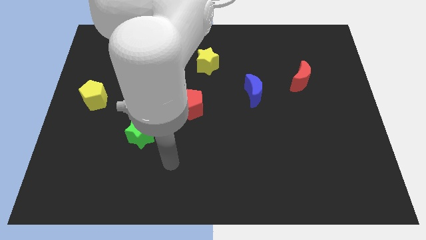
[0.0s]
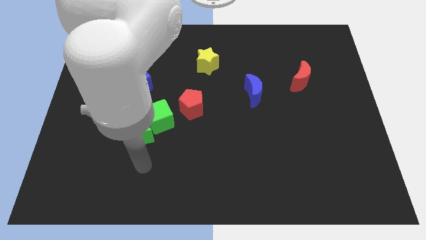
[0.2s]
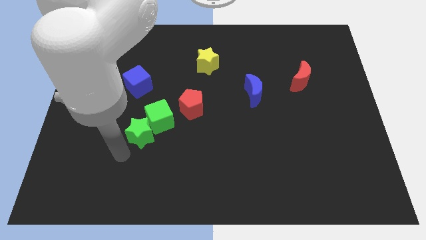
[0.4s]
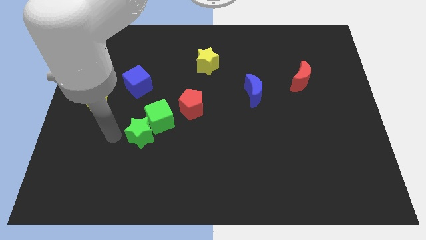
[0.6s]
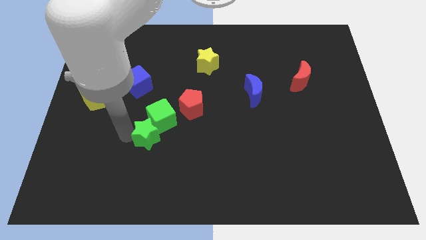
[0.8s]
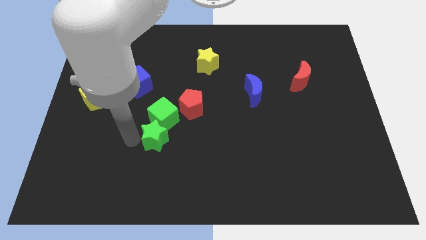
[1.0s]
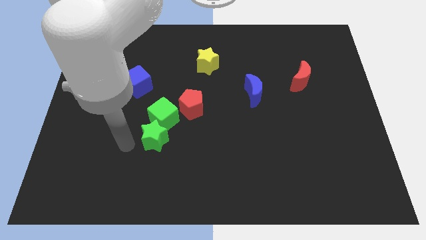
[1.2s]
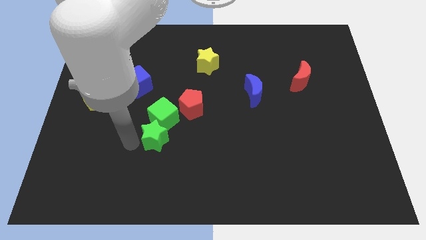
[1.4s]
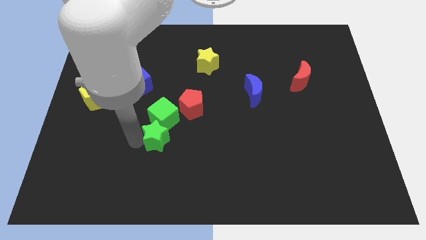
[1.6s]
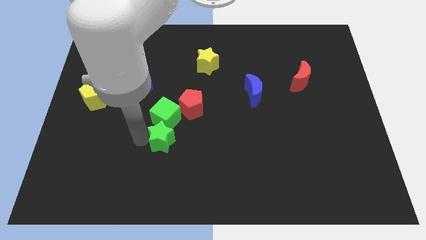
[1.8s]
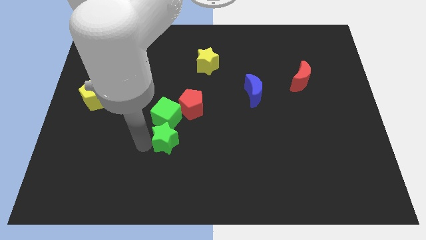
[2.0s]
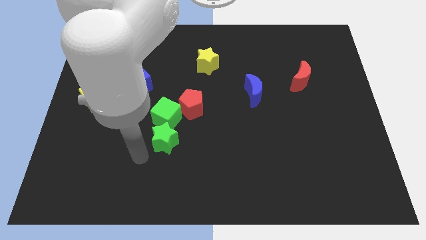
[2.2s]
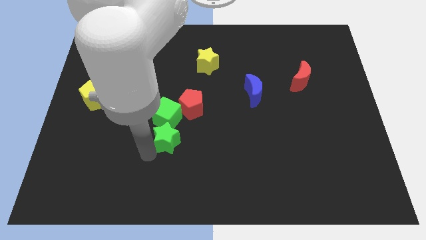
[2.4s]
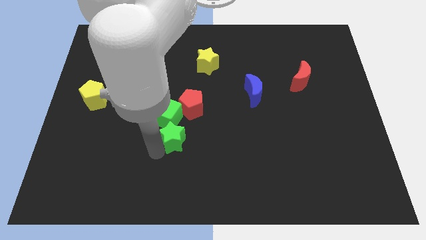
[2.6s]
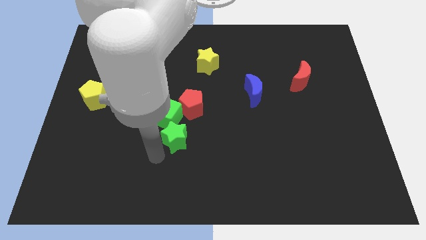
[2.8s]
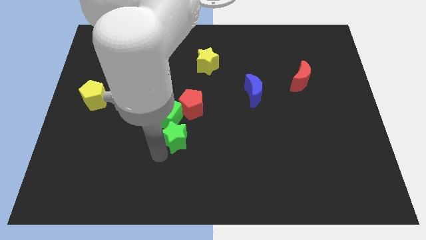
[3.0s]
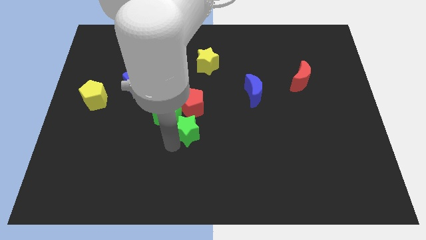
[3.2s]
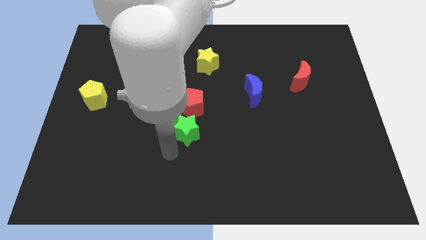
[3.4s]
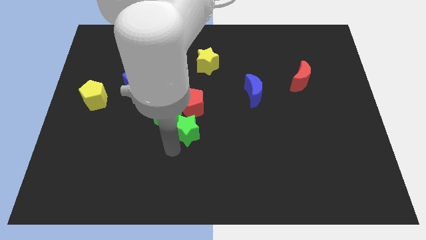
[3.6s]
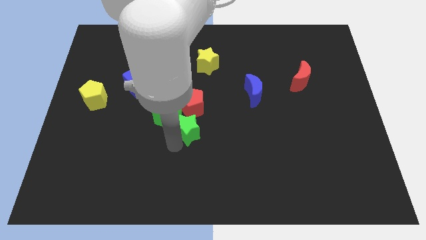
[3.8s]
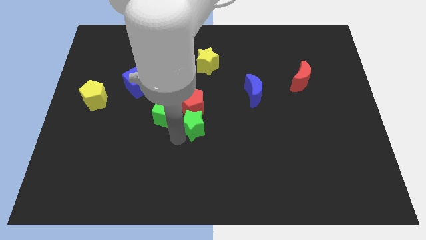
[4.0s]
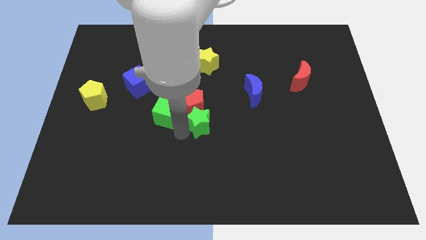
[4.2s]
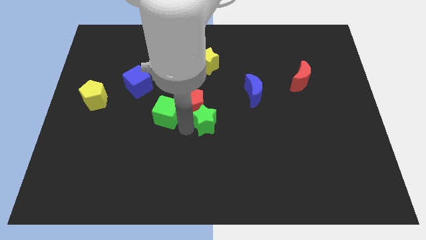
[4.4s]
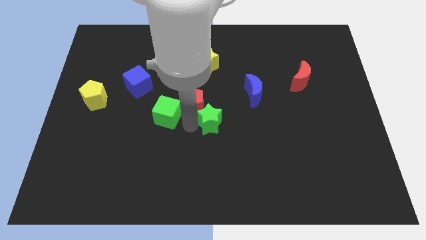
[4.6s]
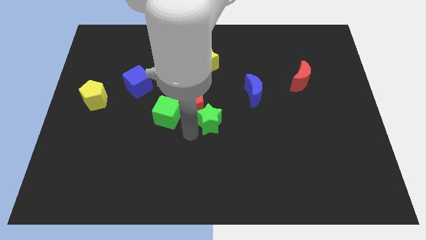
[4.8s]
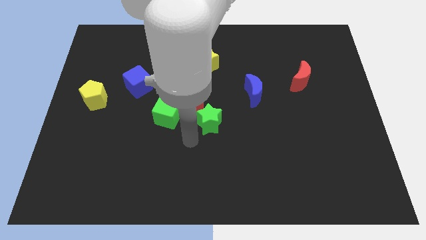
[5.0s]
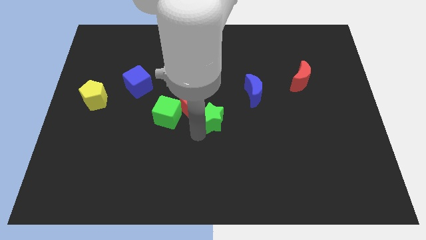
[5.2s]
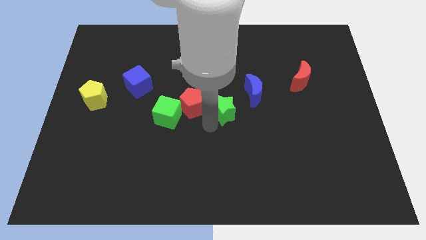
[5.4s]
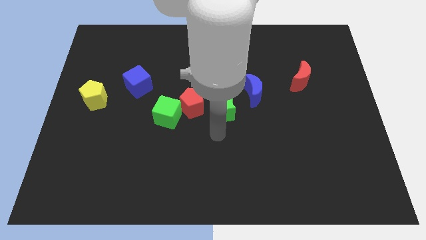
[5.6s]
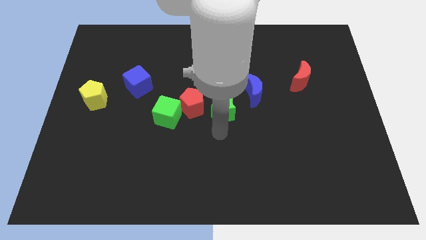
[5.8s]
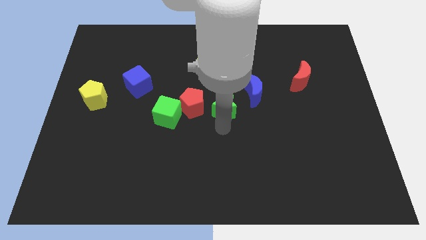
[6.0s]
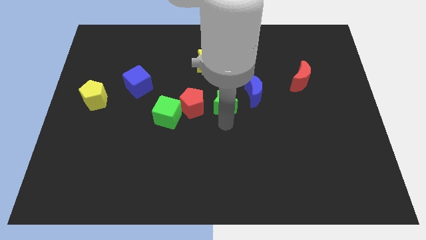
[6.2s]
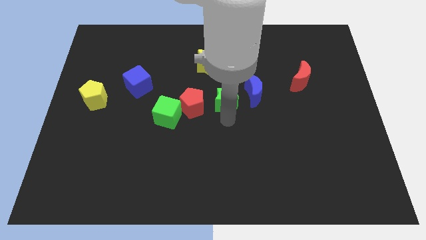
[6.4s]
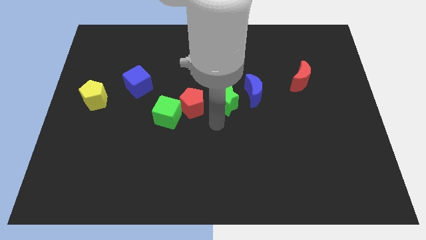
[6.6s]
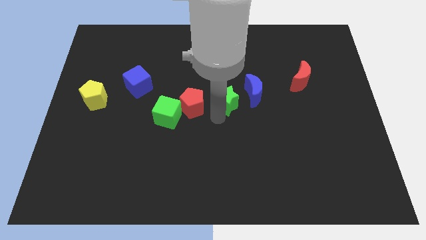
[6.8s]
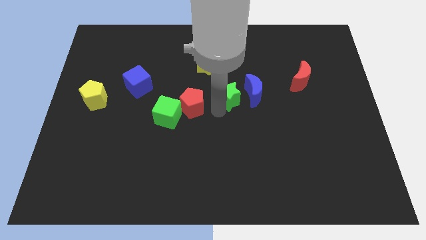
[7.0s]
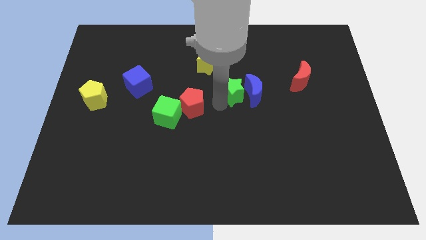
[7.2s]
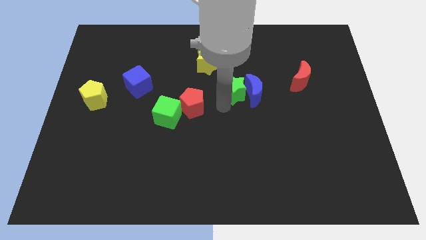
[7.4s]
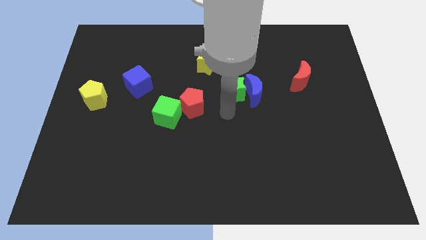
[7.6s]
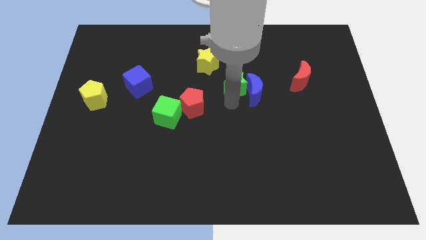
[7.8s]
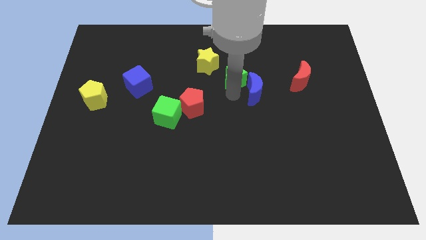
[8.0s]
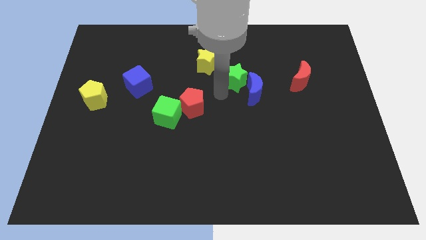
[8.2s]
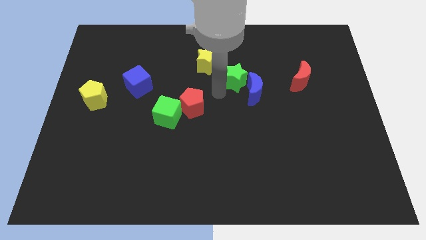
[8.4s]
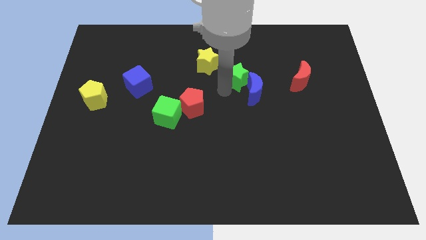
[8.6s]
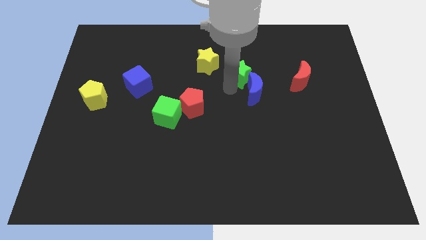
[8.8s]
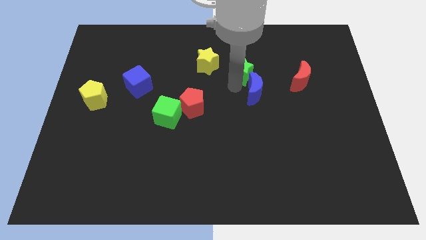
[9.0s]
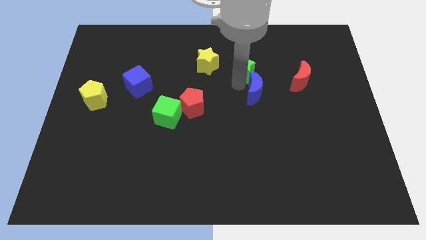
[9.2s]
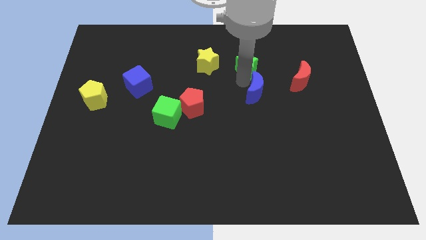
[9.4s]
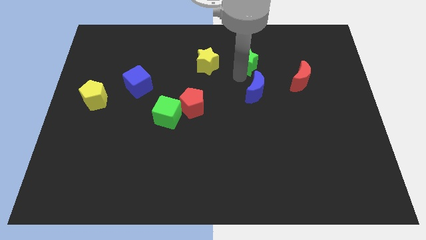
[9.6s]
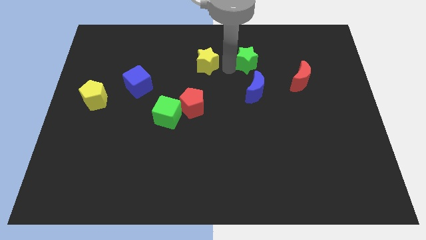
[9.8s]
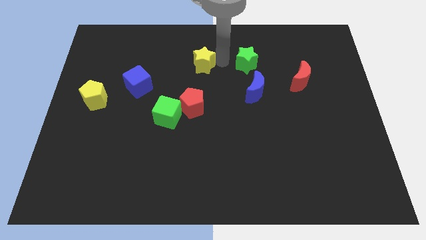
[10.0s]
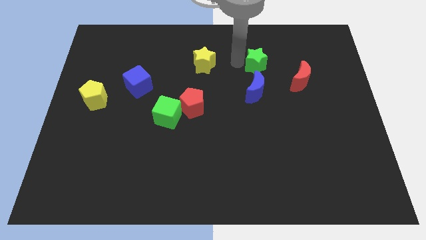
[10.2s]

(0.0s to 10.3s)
move the green star to the top left of the red moon

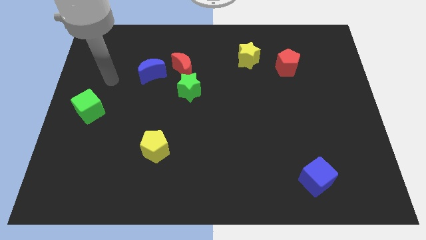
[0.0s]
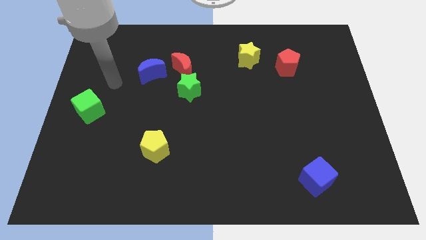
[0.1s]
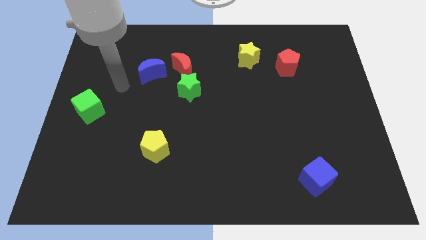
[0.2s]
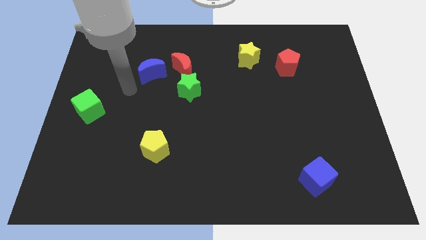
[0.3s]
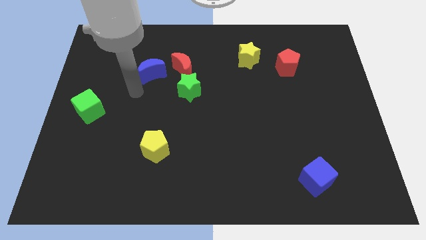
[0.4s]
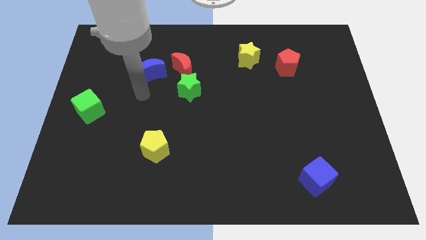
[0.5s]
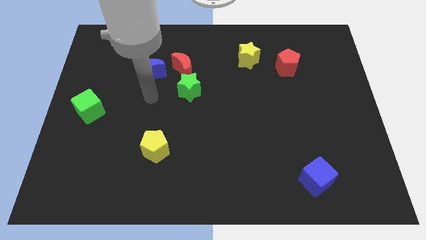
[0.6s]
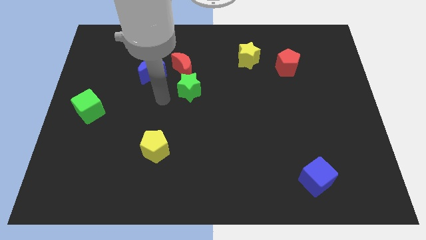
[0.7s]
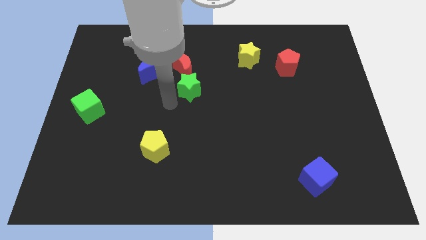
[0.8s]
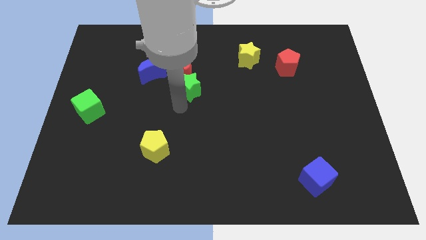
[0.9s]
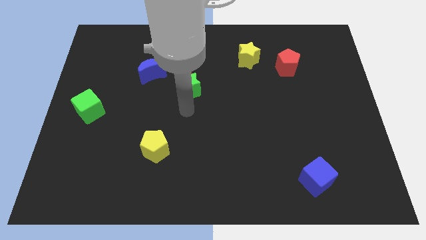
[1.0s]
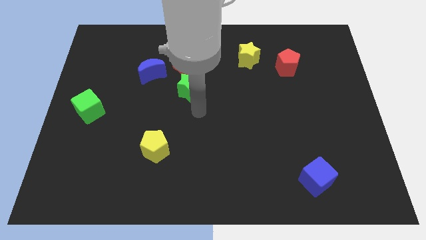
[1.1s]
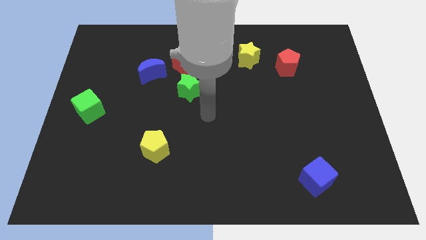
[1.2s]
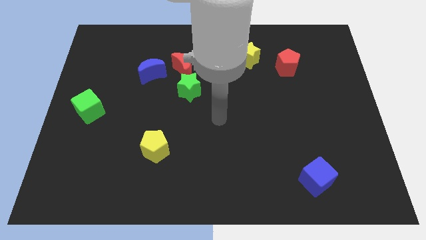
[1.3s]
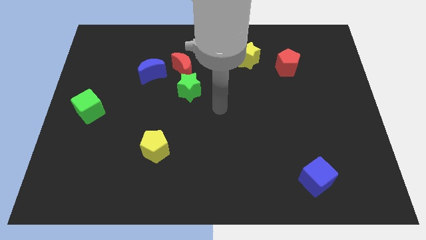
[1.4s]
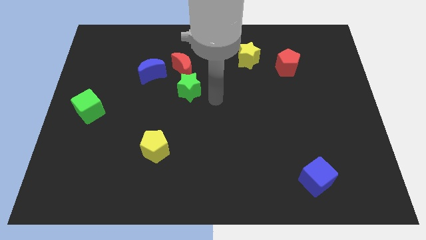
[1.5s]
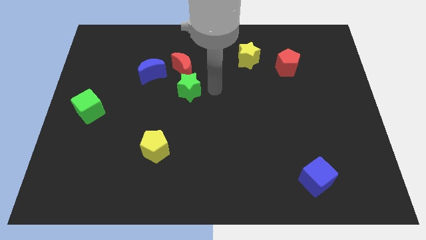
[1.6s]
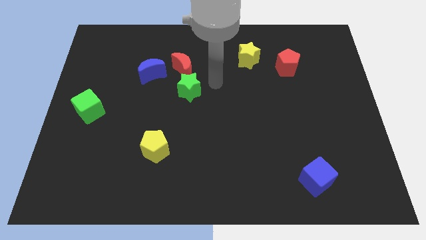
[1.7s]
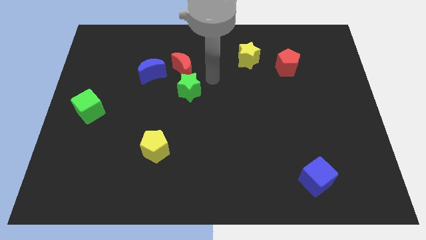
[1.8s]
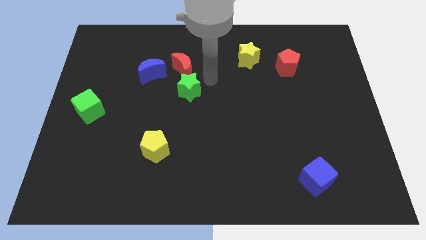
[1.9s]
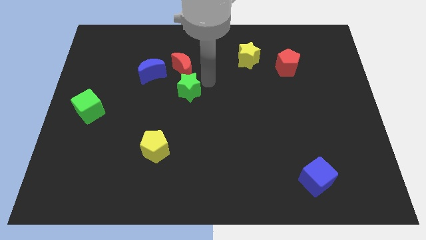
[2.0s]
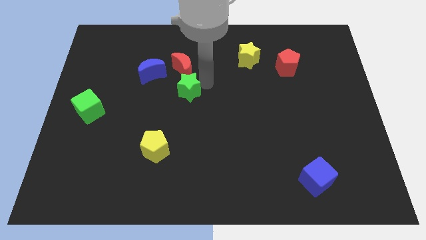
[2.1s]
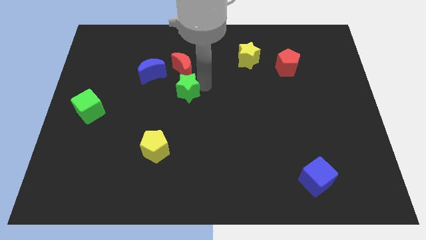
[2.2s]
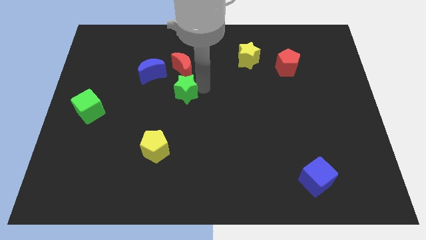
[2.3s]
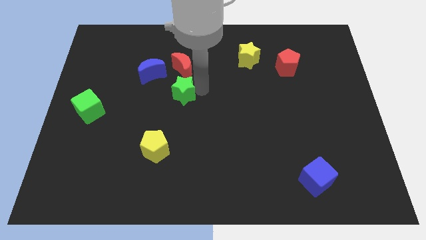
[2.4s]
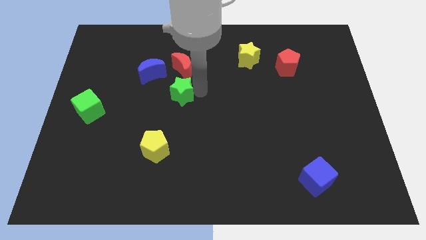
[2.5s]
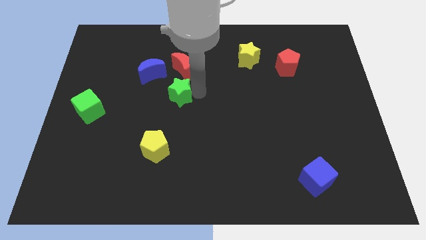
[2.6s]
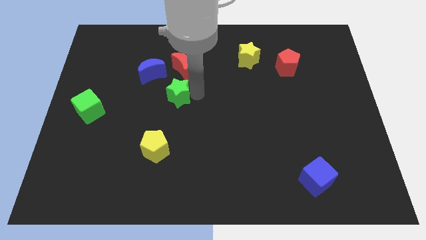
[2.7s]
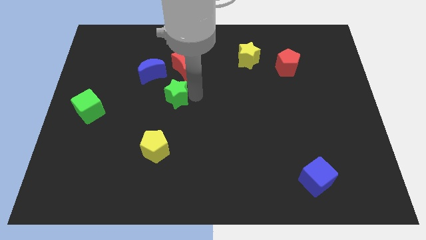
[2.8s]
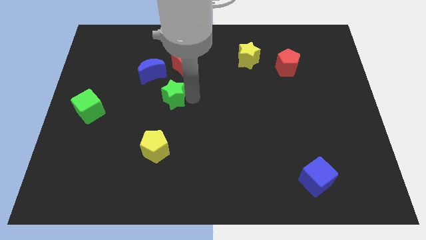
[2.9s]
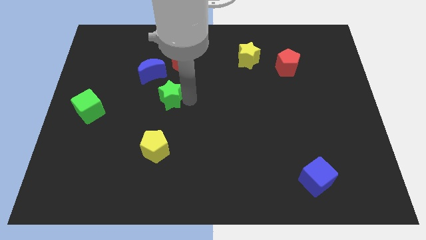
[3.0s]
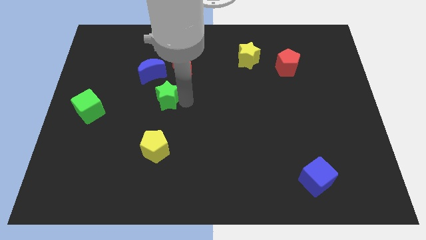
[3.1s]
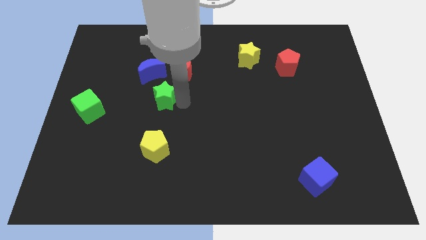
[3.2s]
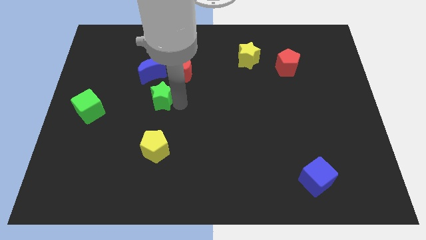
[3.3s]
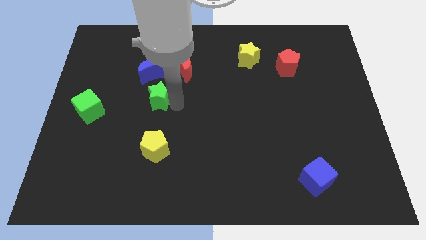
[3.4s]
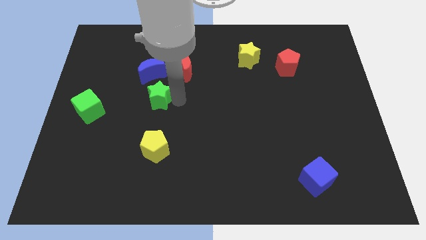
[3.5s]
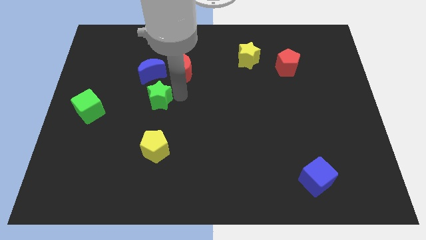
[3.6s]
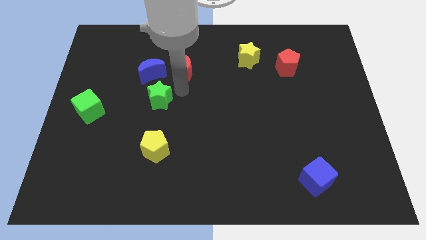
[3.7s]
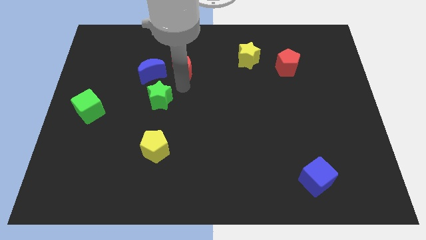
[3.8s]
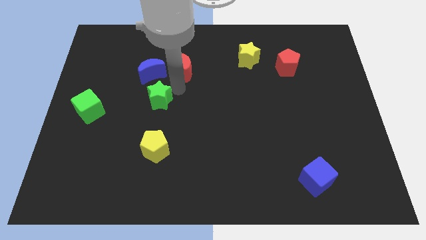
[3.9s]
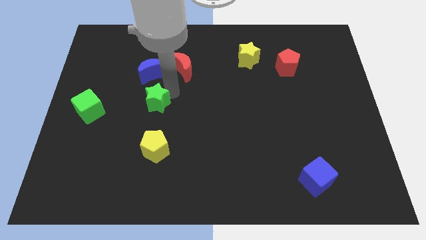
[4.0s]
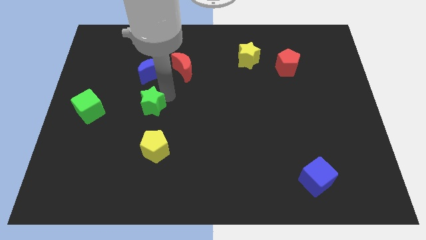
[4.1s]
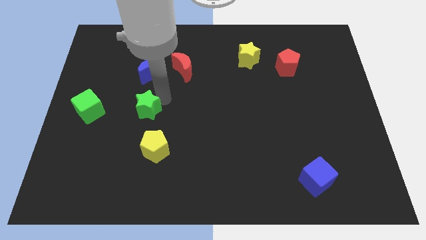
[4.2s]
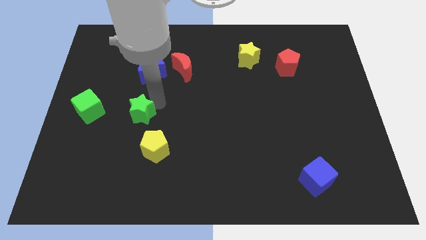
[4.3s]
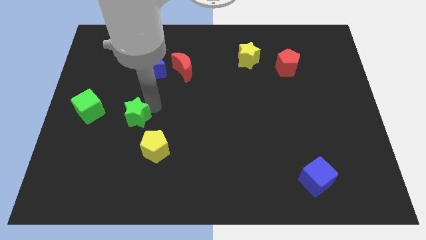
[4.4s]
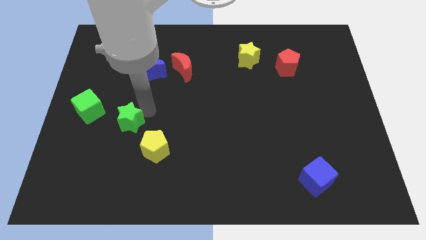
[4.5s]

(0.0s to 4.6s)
move the green star diagonally down and to the right of the green cube
